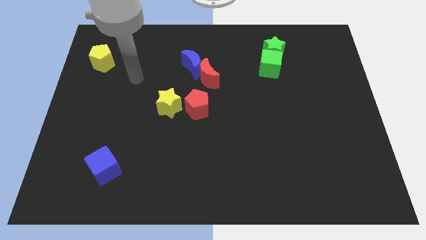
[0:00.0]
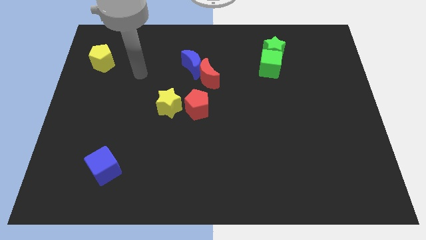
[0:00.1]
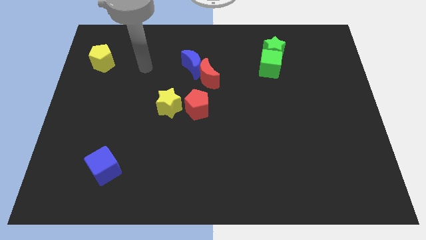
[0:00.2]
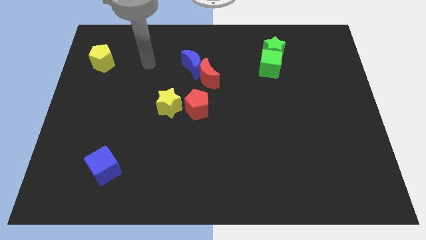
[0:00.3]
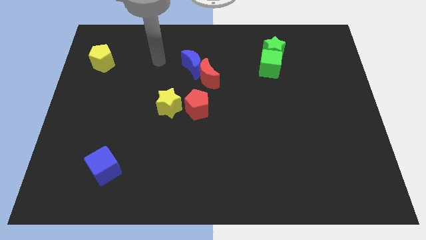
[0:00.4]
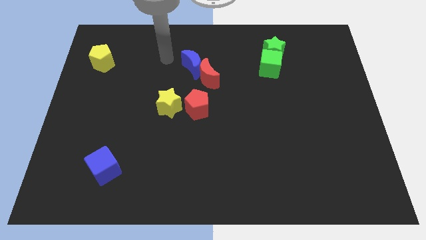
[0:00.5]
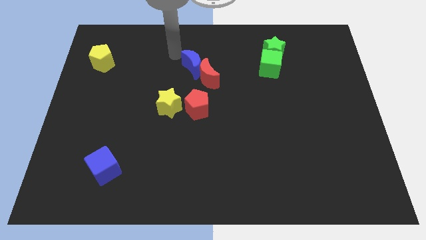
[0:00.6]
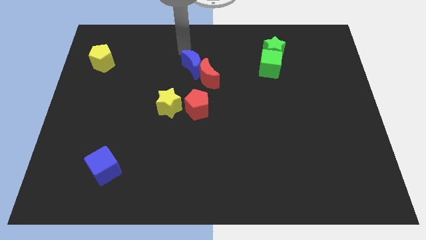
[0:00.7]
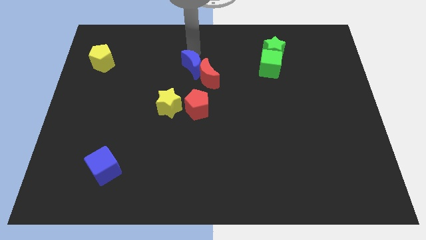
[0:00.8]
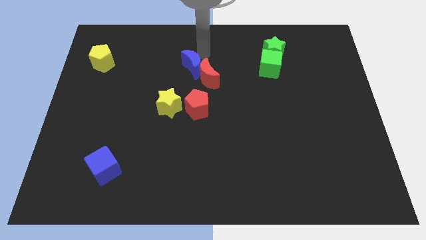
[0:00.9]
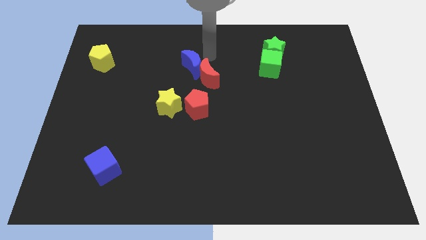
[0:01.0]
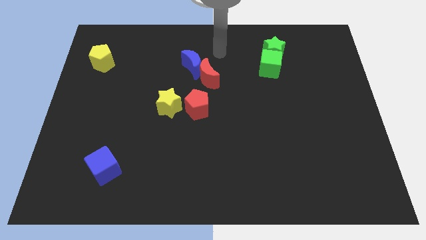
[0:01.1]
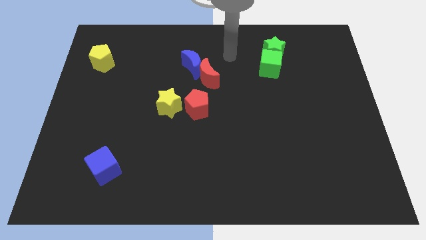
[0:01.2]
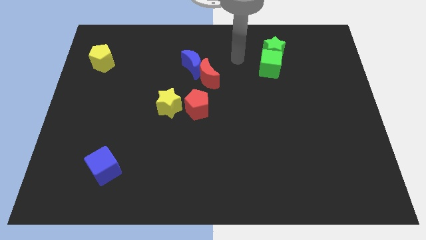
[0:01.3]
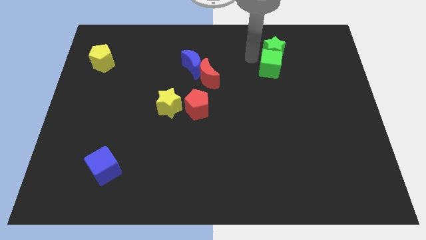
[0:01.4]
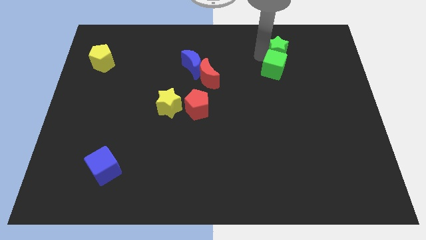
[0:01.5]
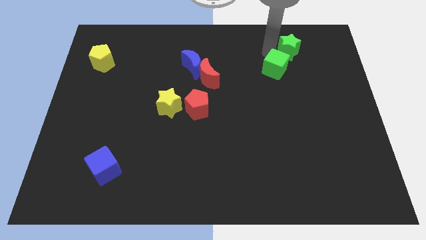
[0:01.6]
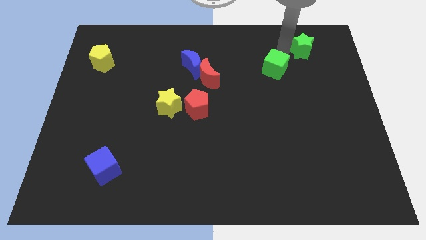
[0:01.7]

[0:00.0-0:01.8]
pull the green cube apart from the green star

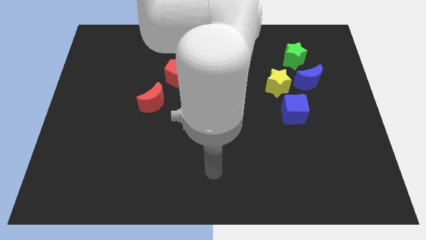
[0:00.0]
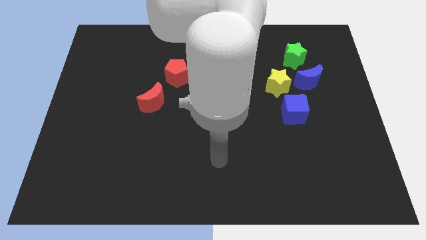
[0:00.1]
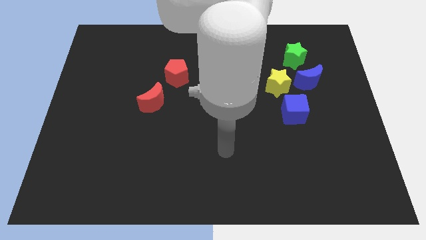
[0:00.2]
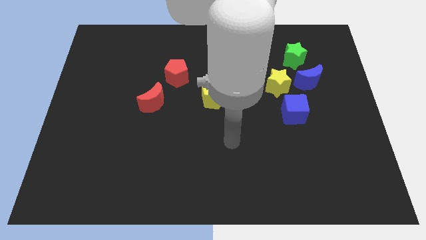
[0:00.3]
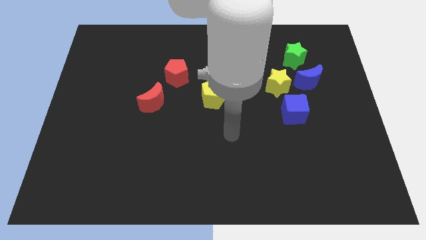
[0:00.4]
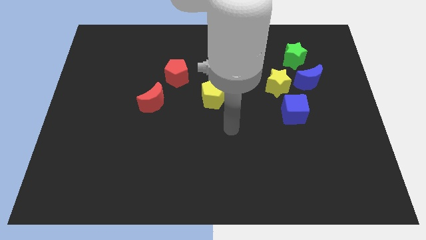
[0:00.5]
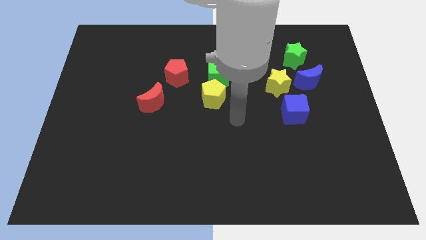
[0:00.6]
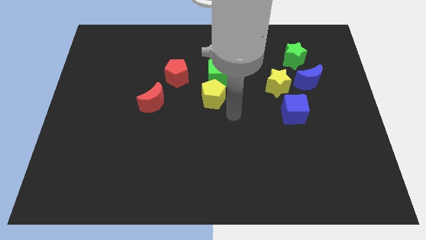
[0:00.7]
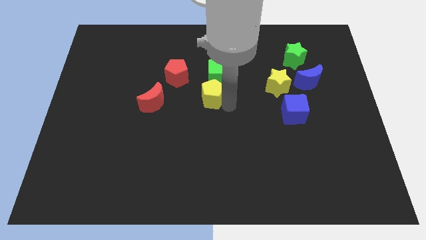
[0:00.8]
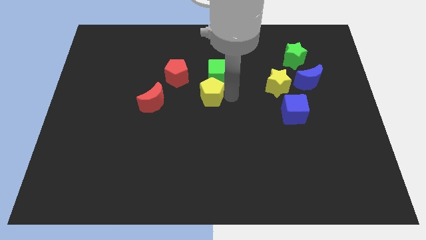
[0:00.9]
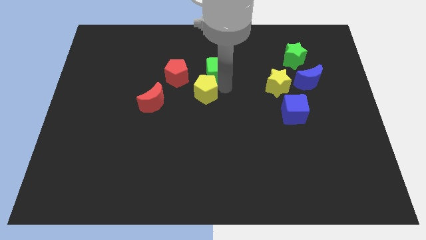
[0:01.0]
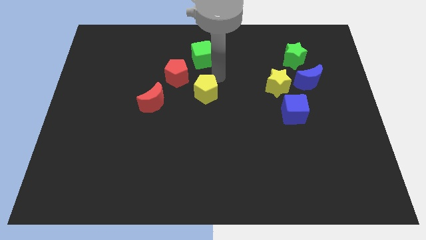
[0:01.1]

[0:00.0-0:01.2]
move the yellow pentagon away from the green cube

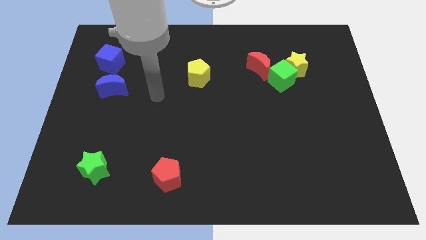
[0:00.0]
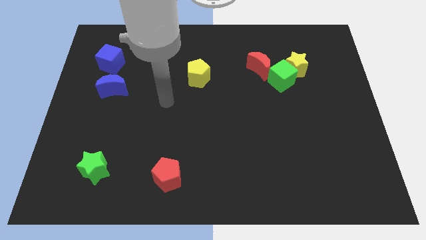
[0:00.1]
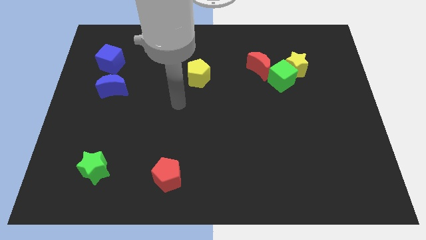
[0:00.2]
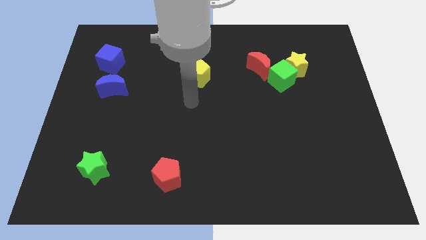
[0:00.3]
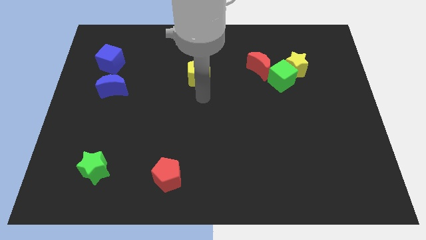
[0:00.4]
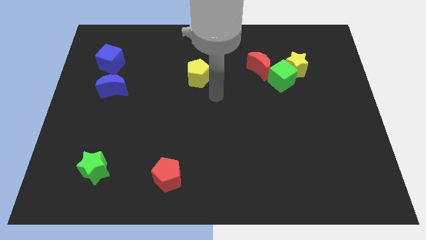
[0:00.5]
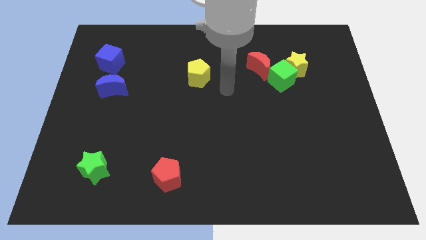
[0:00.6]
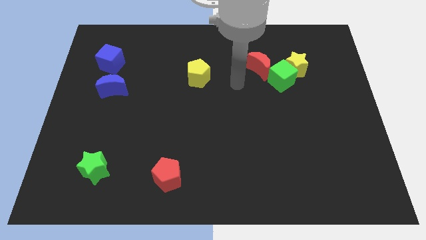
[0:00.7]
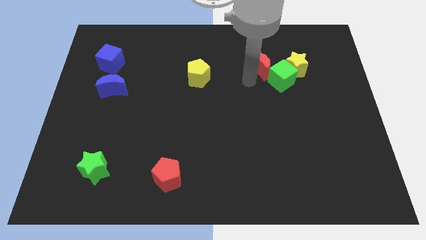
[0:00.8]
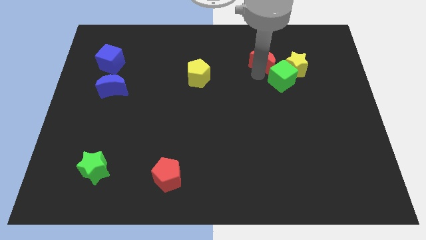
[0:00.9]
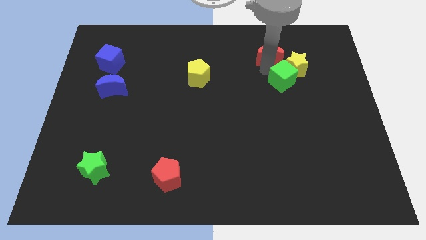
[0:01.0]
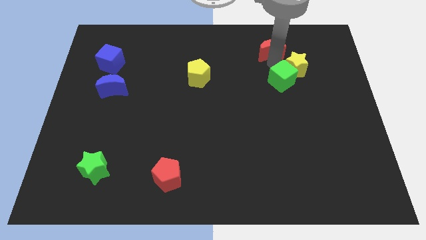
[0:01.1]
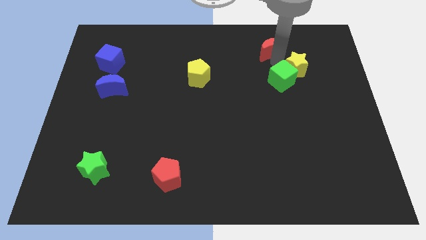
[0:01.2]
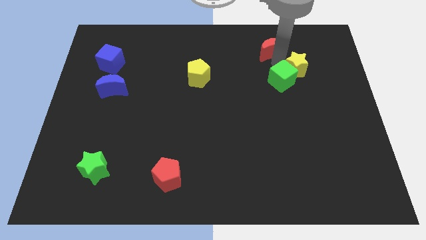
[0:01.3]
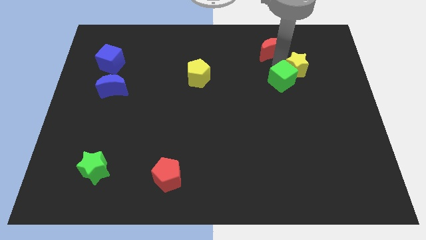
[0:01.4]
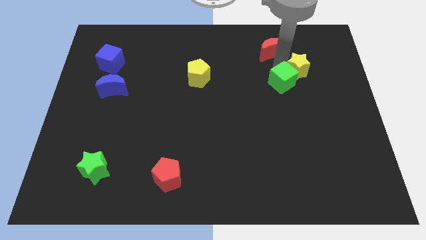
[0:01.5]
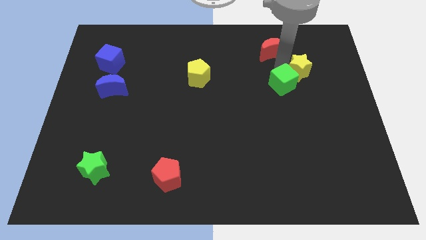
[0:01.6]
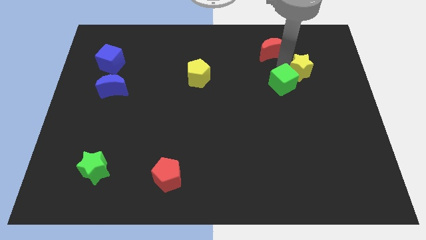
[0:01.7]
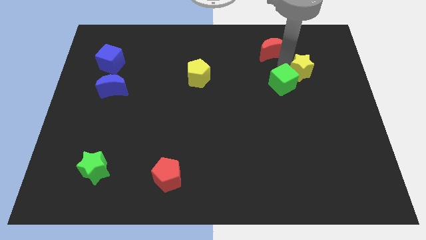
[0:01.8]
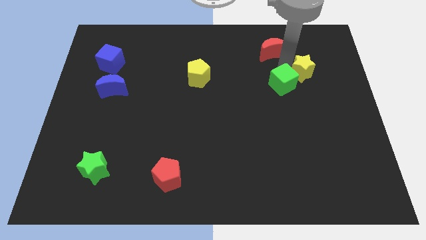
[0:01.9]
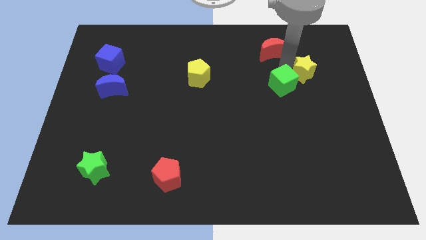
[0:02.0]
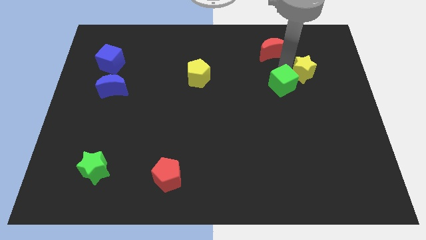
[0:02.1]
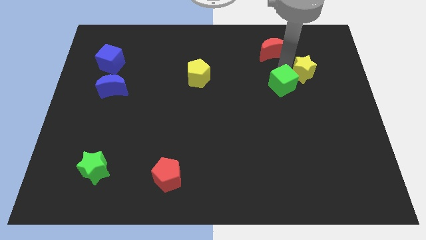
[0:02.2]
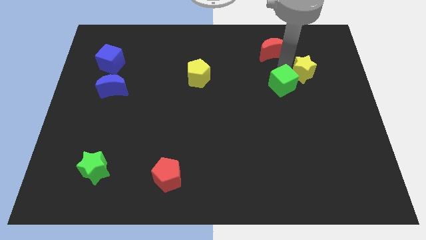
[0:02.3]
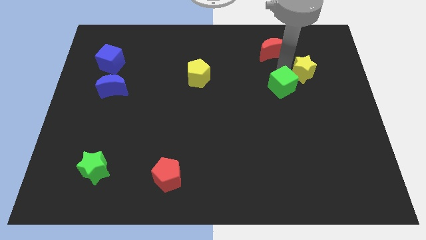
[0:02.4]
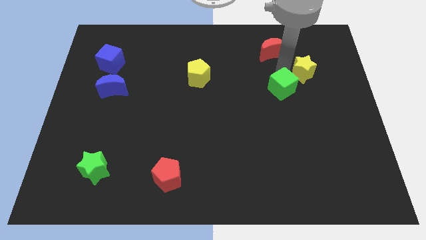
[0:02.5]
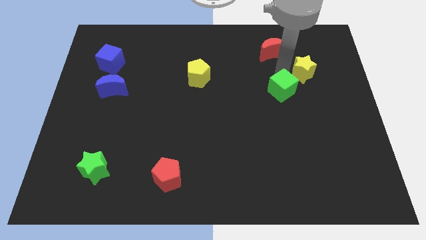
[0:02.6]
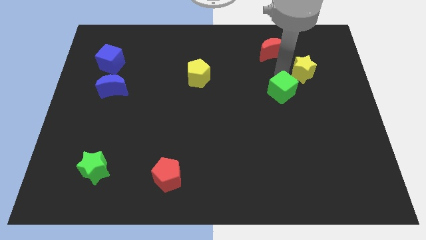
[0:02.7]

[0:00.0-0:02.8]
separate the green cube from the yellow star and red moon

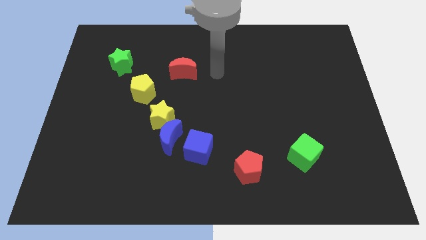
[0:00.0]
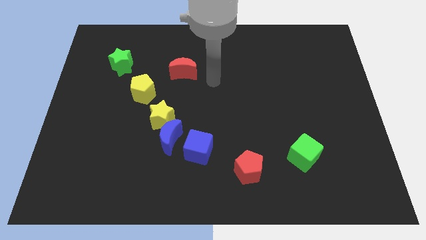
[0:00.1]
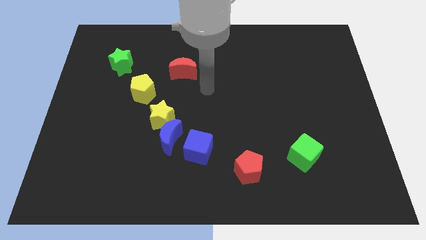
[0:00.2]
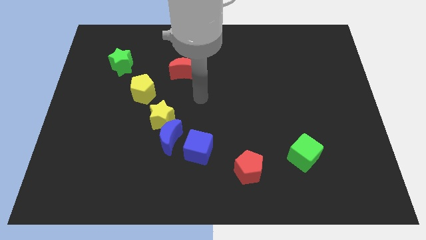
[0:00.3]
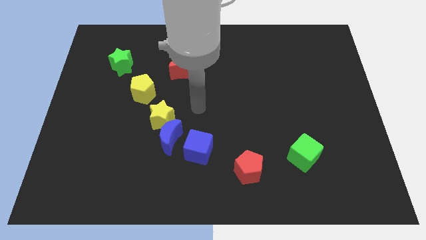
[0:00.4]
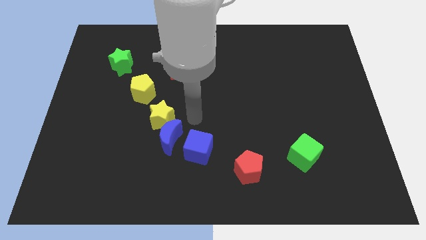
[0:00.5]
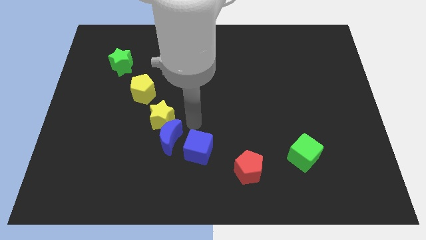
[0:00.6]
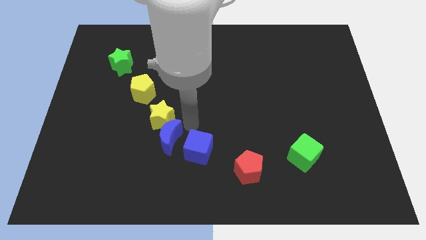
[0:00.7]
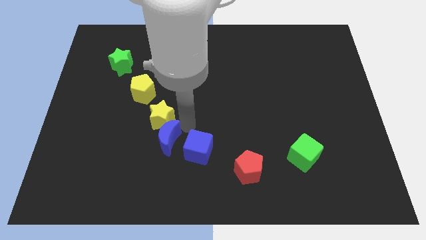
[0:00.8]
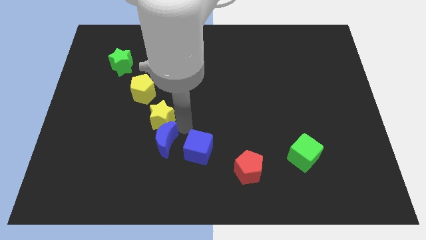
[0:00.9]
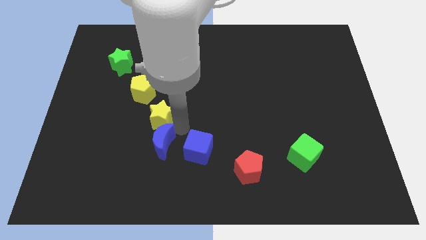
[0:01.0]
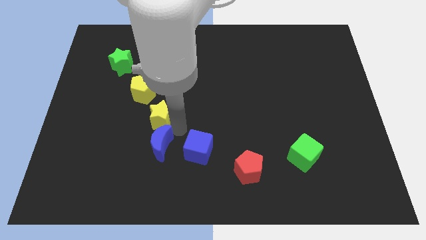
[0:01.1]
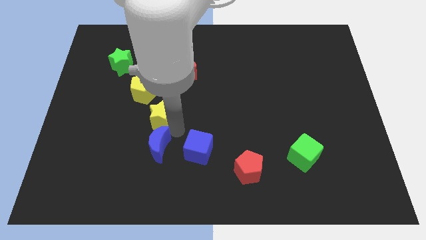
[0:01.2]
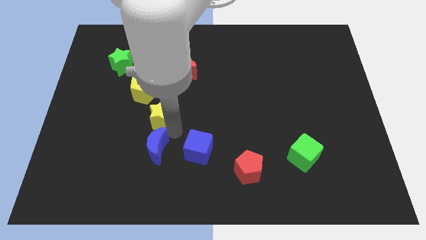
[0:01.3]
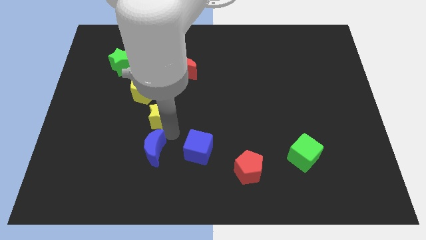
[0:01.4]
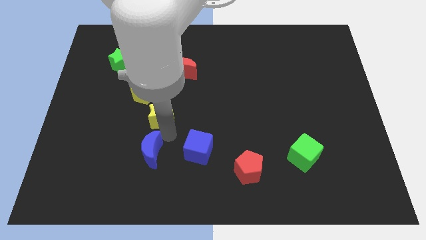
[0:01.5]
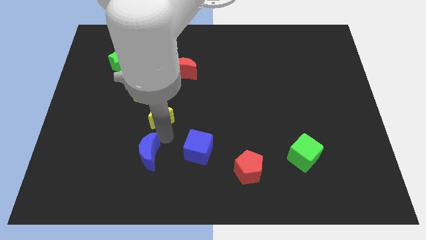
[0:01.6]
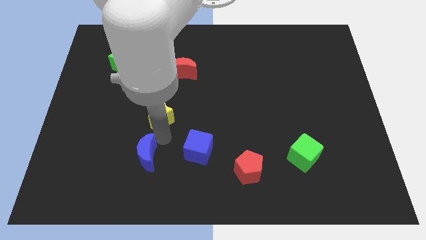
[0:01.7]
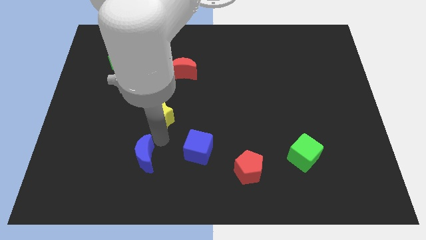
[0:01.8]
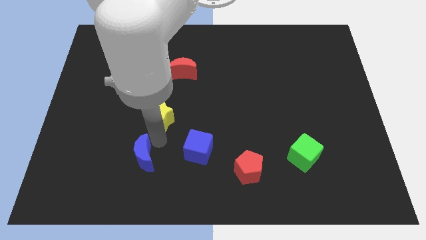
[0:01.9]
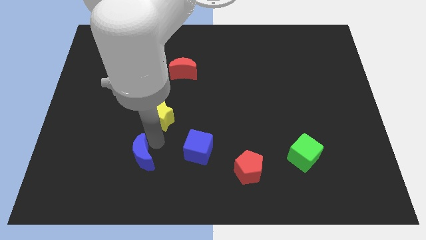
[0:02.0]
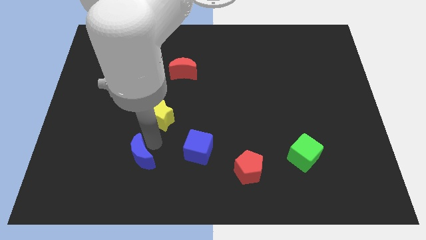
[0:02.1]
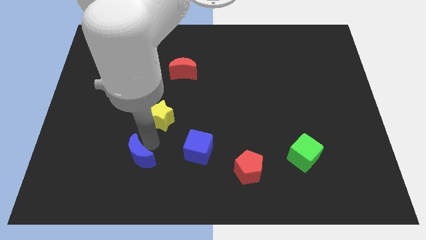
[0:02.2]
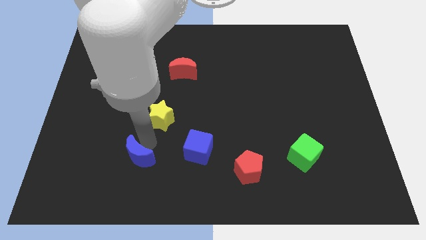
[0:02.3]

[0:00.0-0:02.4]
pull the blue moon apart from the yellow star and blue cube

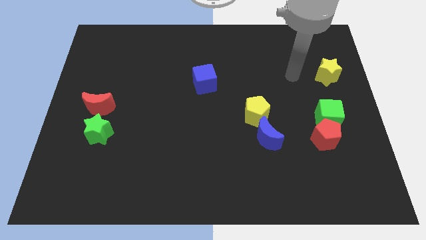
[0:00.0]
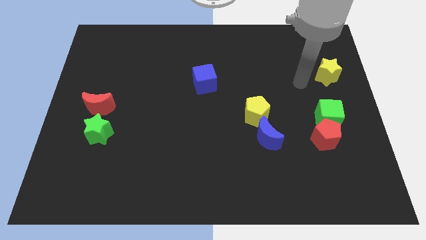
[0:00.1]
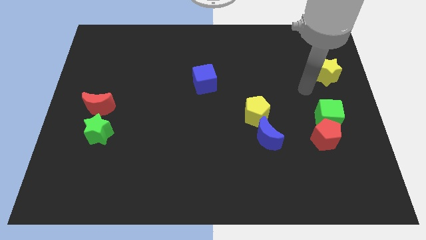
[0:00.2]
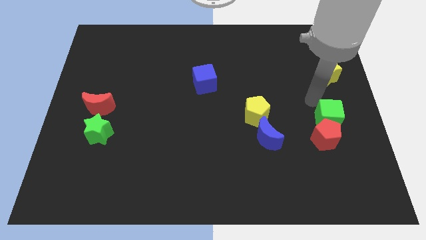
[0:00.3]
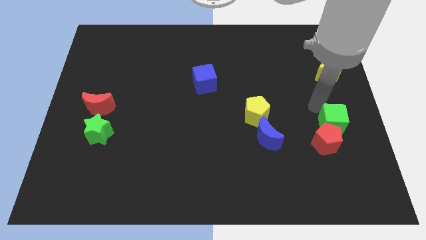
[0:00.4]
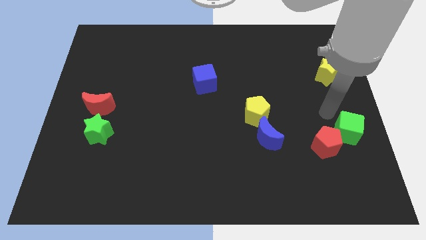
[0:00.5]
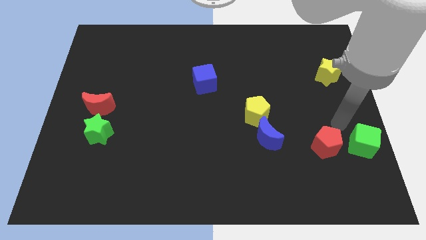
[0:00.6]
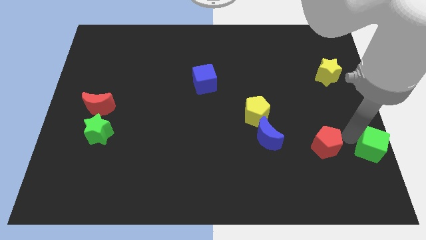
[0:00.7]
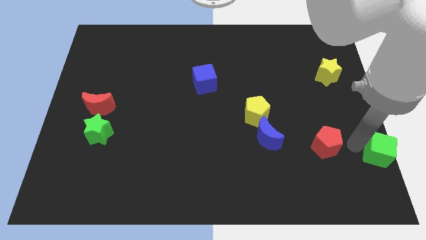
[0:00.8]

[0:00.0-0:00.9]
separate the red pentagon from the green cube
